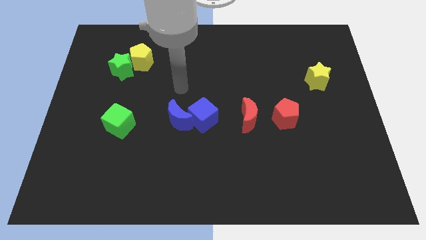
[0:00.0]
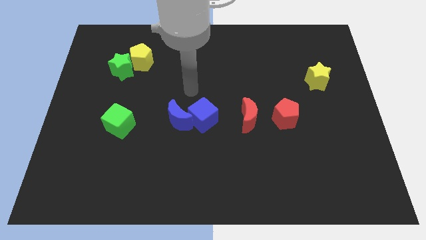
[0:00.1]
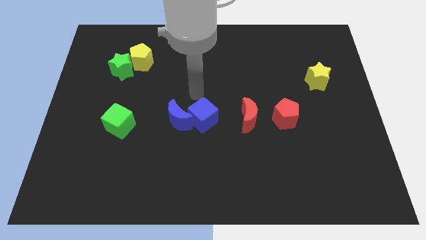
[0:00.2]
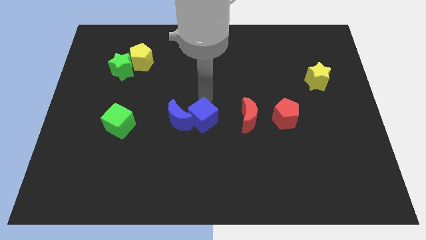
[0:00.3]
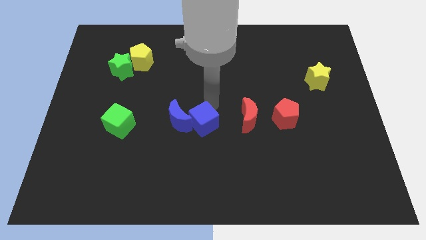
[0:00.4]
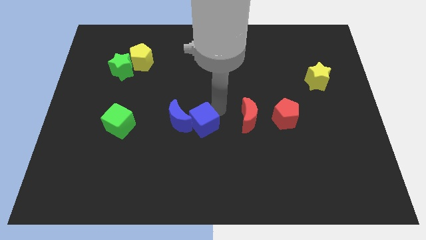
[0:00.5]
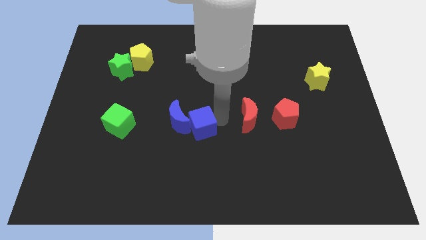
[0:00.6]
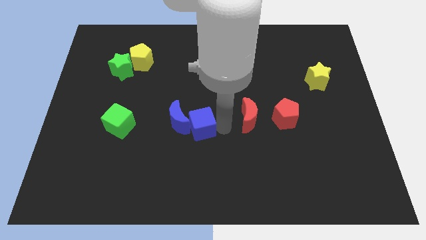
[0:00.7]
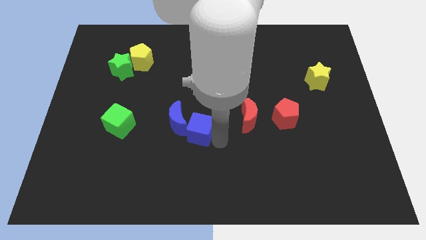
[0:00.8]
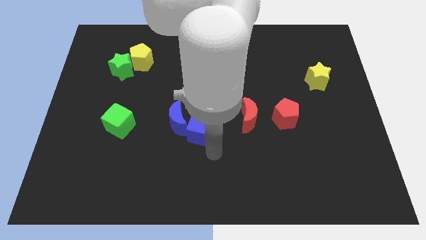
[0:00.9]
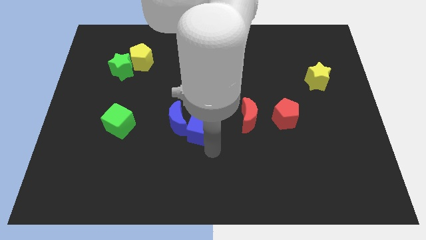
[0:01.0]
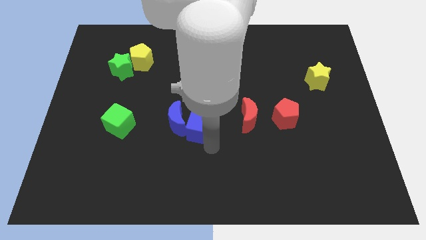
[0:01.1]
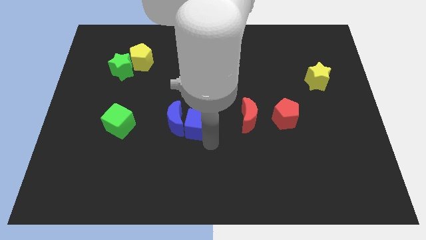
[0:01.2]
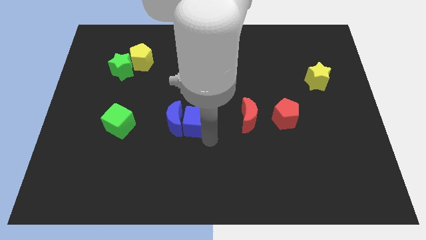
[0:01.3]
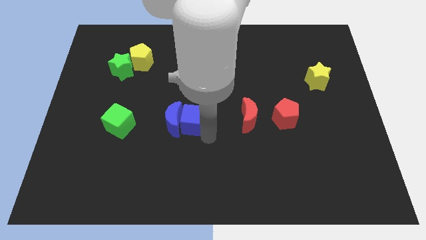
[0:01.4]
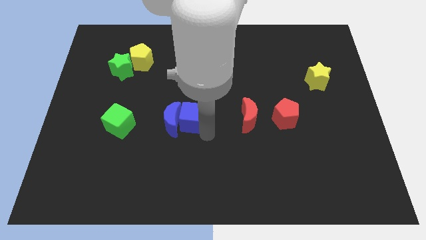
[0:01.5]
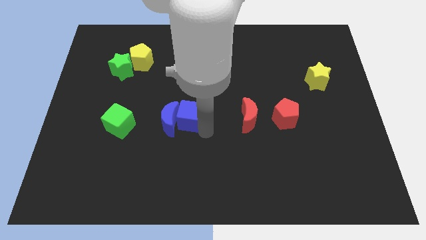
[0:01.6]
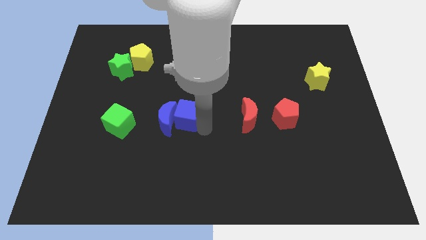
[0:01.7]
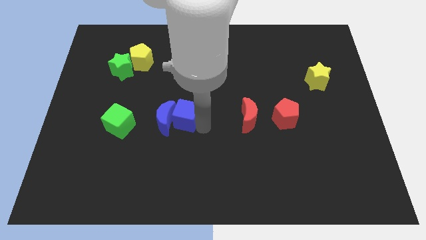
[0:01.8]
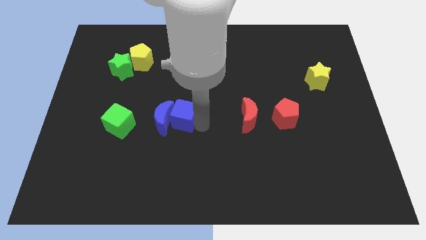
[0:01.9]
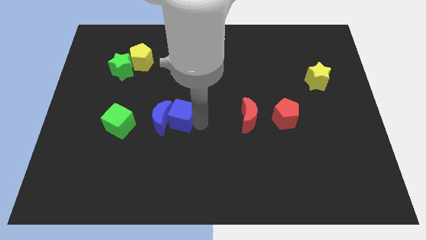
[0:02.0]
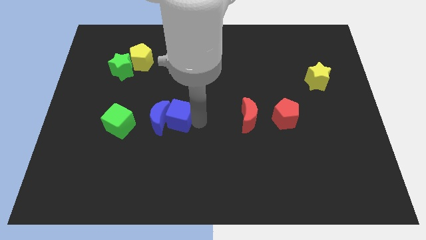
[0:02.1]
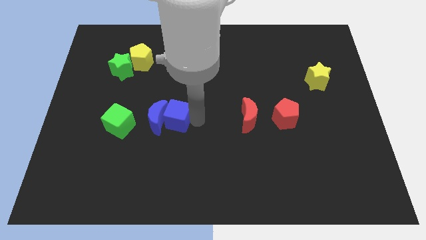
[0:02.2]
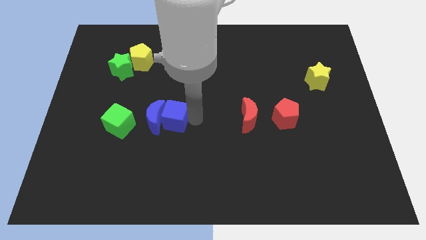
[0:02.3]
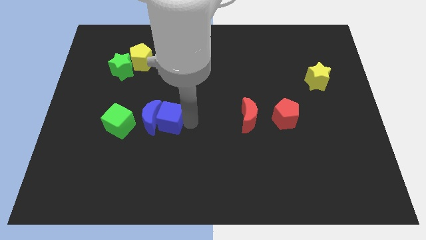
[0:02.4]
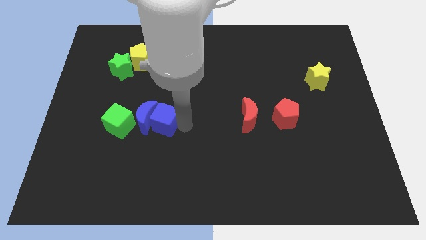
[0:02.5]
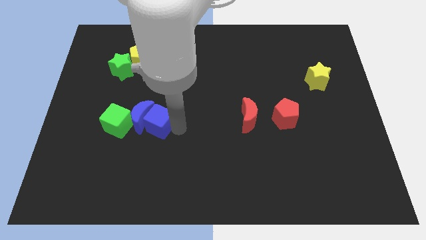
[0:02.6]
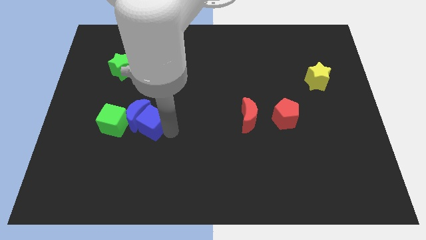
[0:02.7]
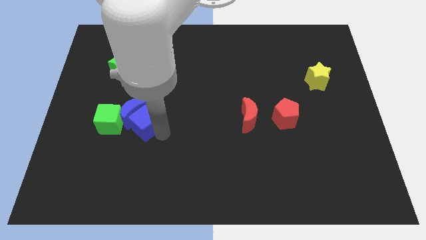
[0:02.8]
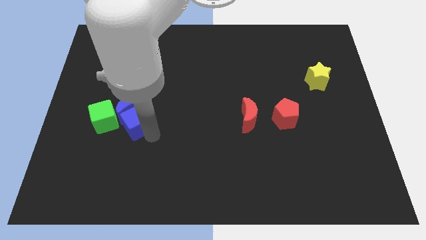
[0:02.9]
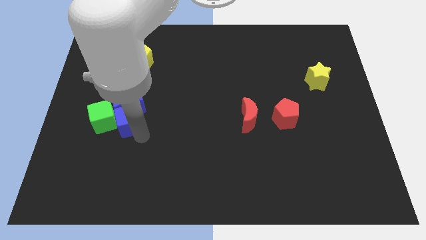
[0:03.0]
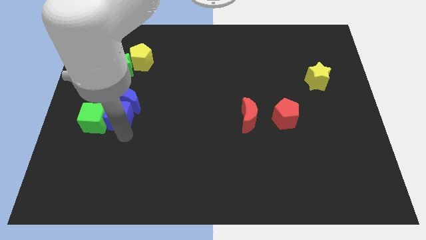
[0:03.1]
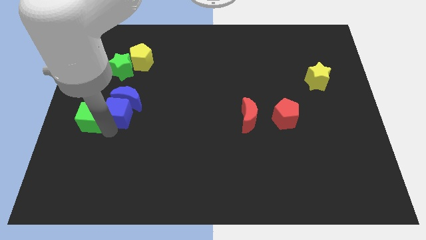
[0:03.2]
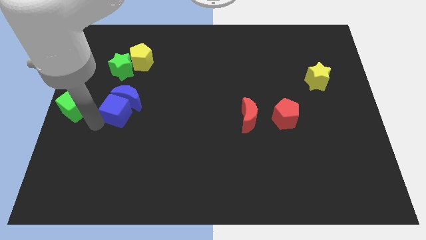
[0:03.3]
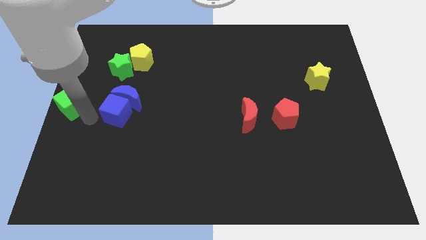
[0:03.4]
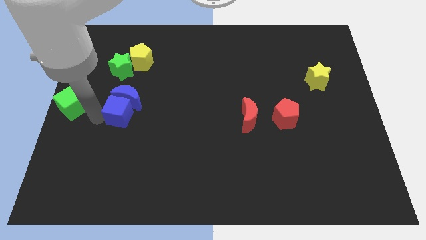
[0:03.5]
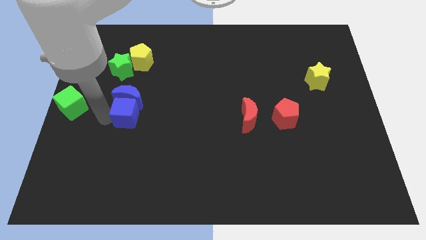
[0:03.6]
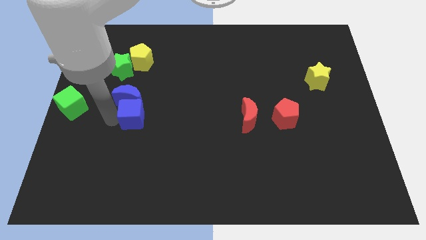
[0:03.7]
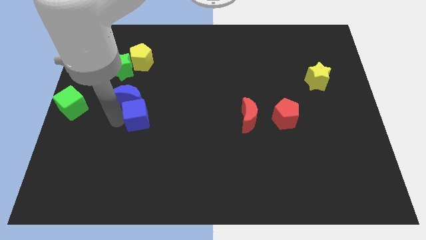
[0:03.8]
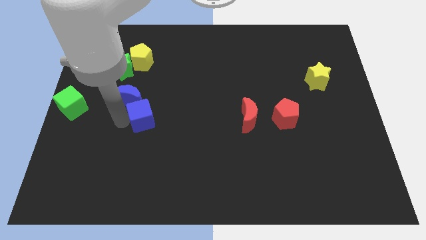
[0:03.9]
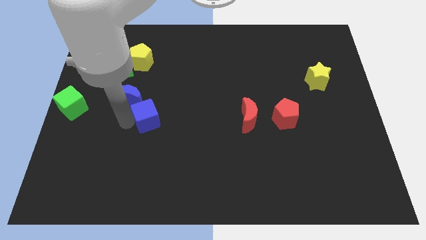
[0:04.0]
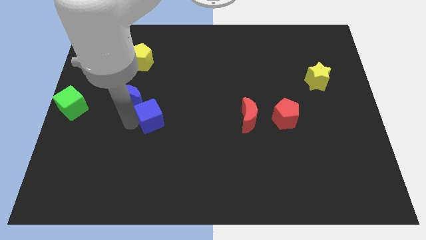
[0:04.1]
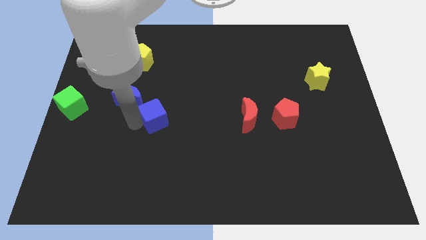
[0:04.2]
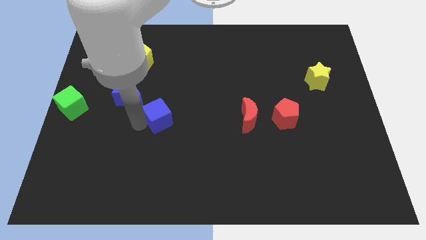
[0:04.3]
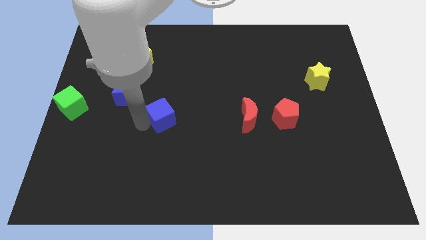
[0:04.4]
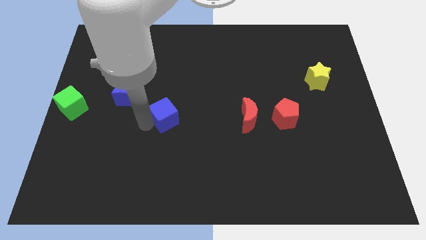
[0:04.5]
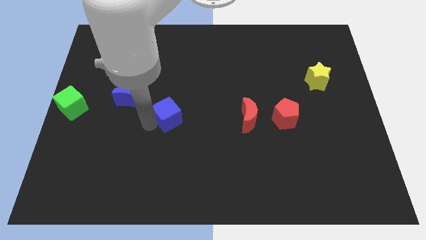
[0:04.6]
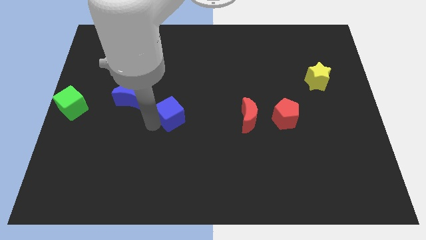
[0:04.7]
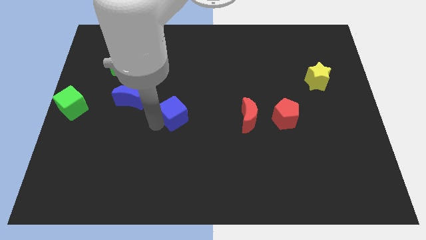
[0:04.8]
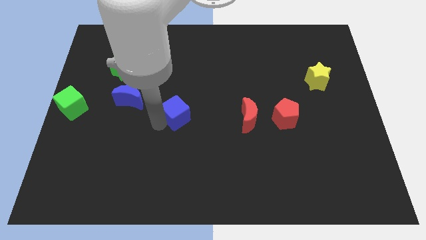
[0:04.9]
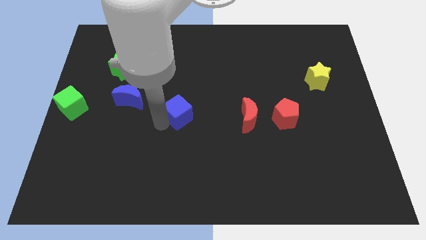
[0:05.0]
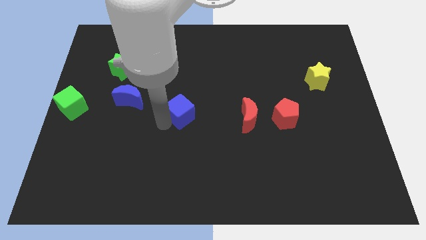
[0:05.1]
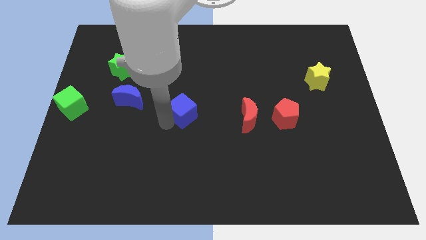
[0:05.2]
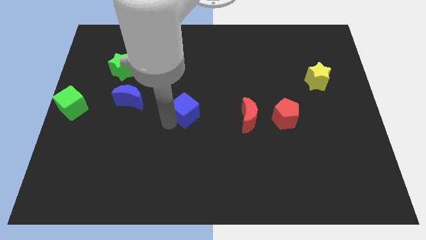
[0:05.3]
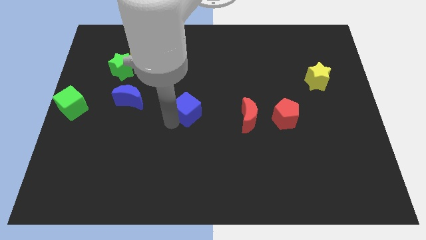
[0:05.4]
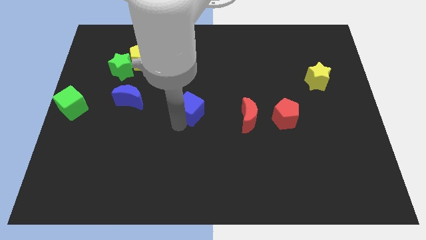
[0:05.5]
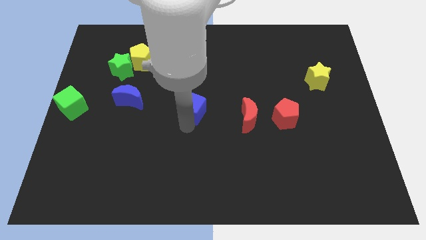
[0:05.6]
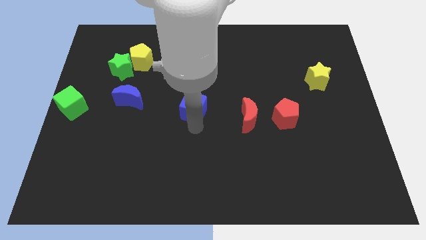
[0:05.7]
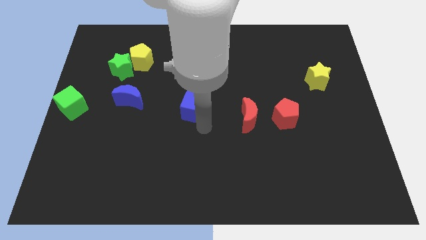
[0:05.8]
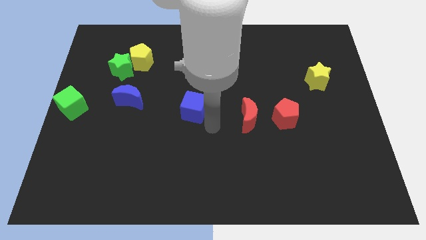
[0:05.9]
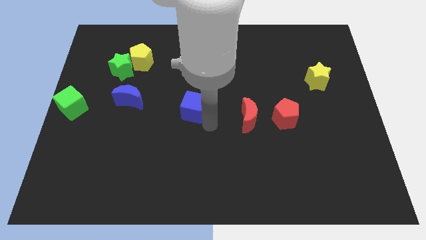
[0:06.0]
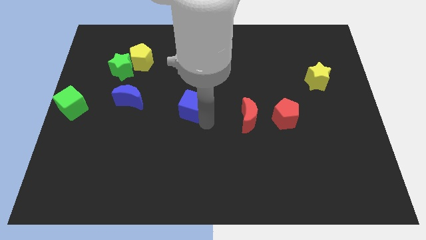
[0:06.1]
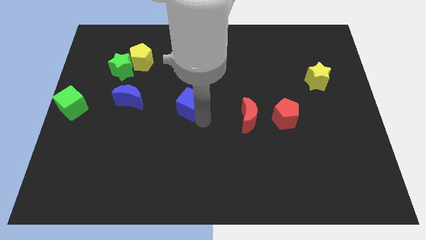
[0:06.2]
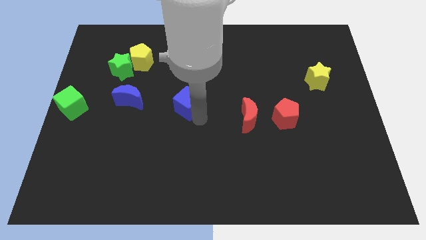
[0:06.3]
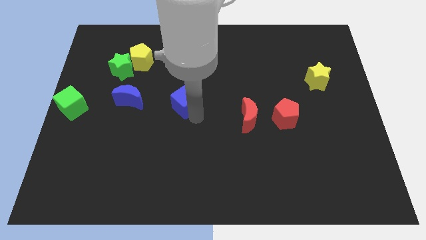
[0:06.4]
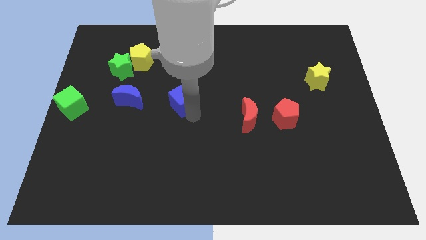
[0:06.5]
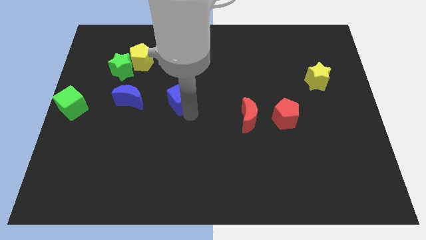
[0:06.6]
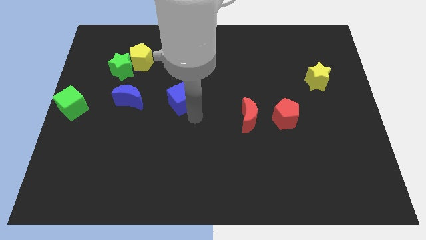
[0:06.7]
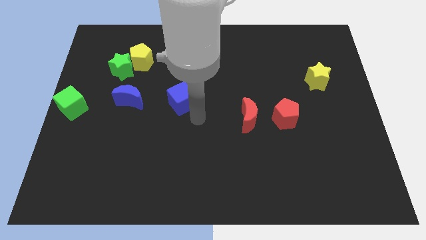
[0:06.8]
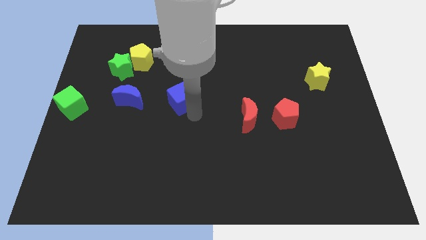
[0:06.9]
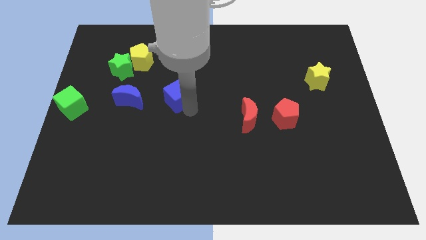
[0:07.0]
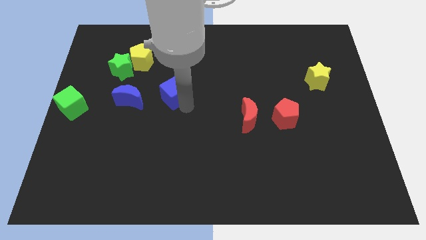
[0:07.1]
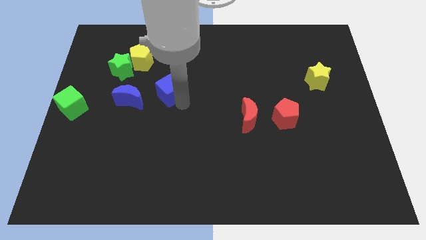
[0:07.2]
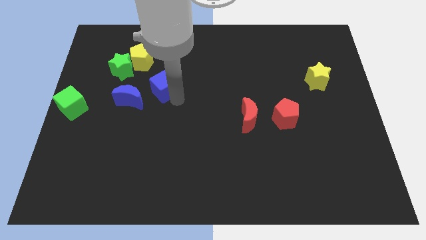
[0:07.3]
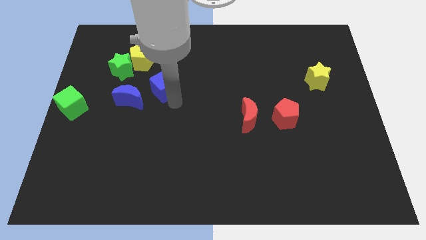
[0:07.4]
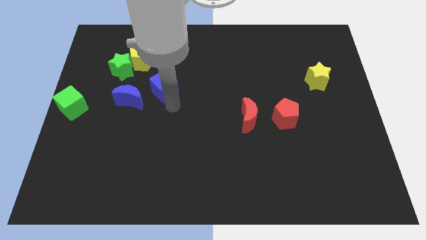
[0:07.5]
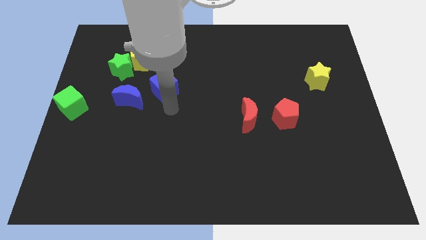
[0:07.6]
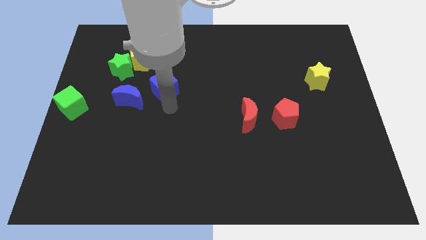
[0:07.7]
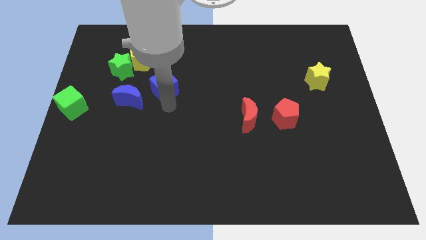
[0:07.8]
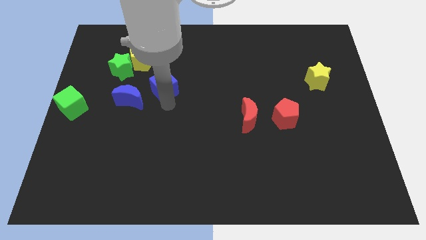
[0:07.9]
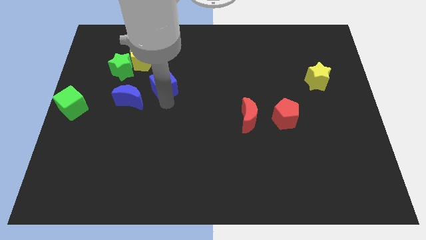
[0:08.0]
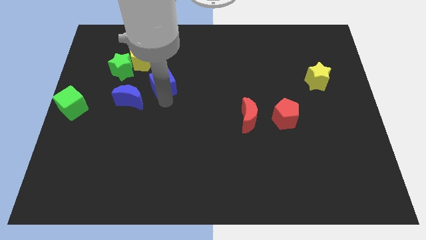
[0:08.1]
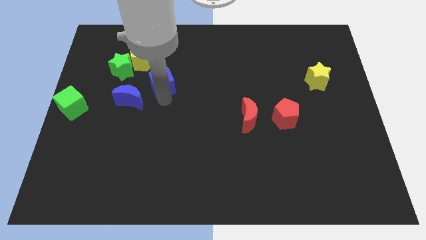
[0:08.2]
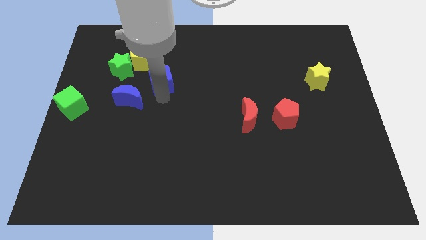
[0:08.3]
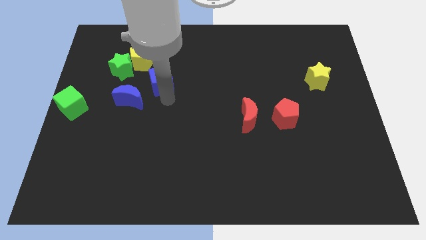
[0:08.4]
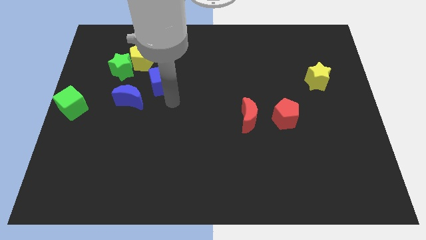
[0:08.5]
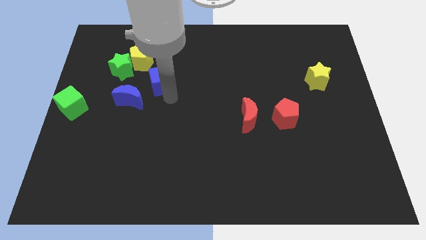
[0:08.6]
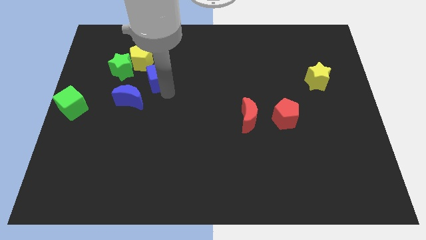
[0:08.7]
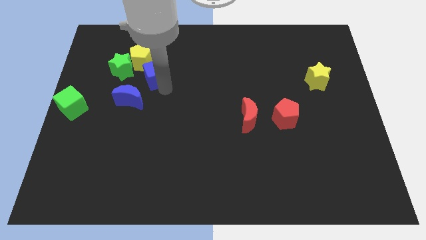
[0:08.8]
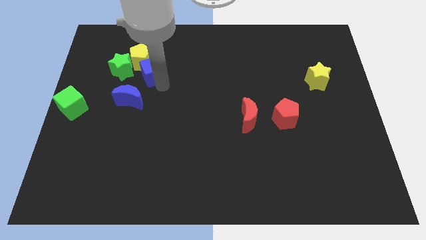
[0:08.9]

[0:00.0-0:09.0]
push the blue cube to the yellow pentagon
